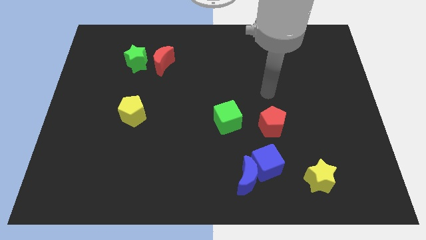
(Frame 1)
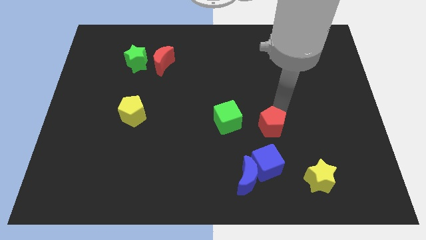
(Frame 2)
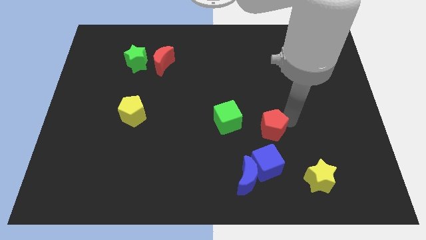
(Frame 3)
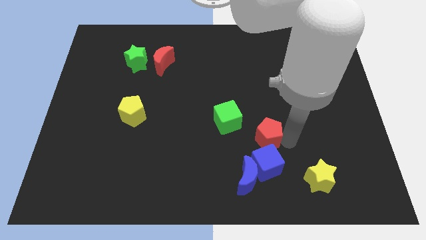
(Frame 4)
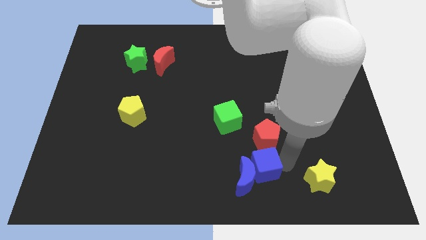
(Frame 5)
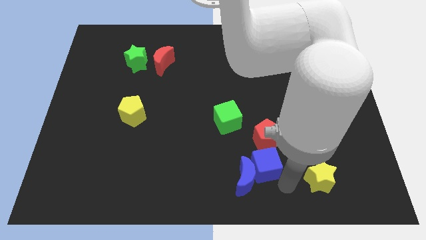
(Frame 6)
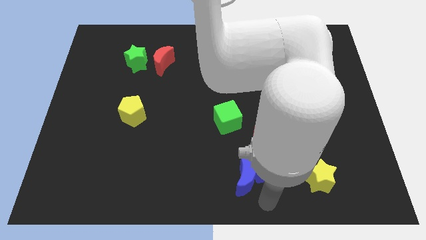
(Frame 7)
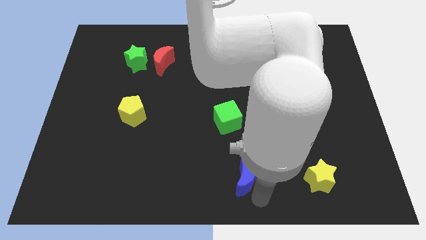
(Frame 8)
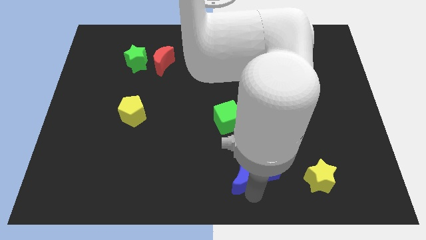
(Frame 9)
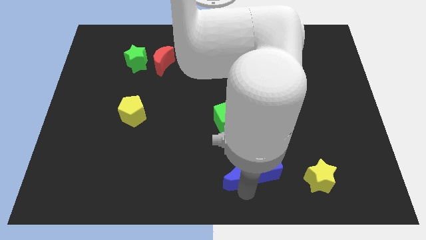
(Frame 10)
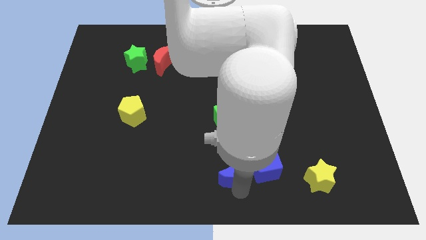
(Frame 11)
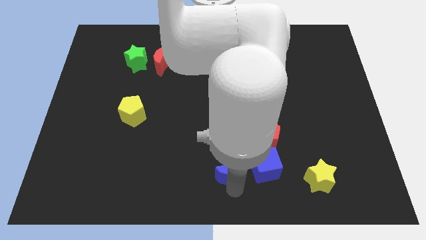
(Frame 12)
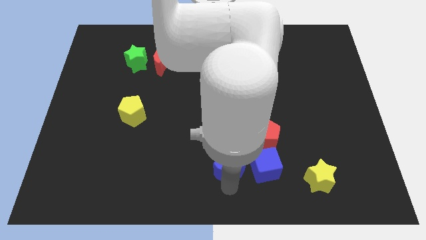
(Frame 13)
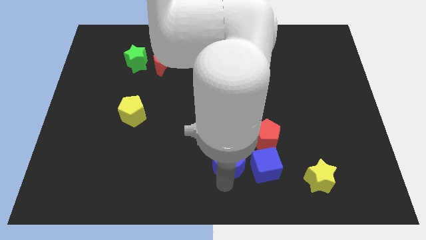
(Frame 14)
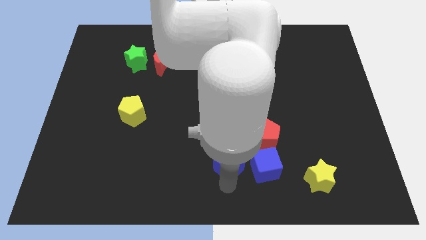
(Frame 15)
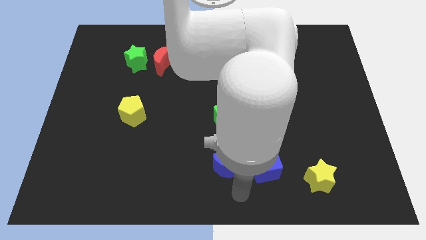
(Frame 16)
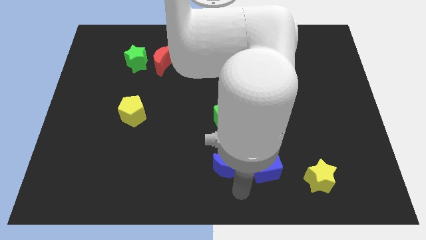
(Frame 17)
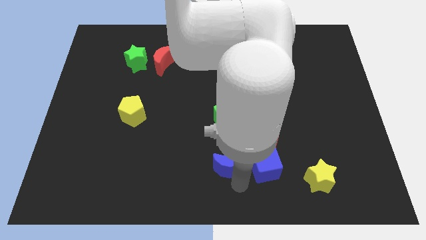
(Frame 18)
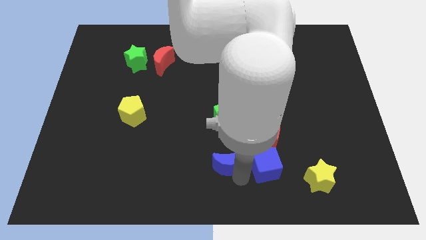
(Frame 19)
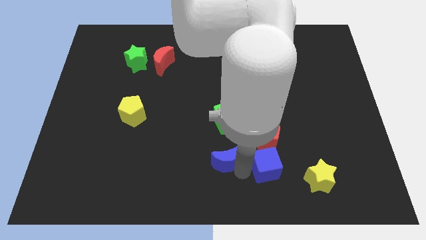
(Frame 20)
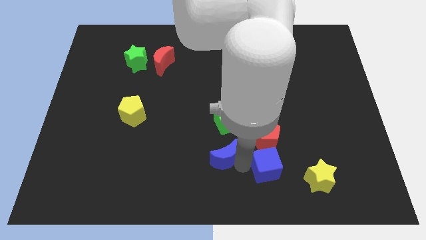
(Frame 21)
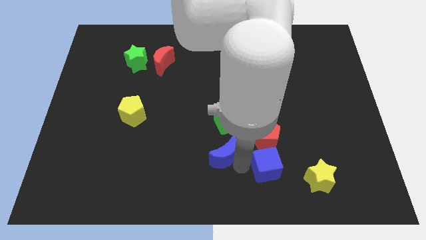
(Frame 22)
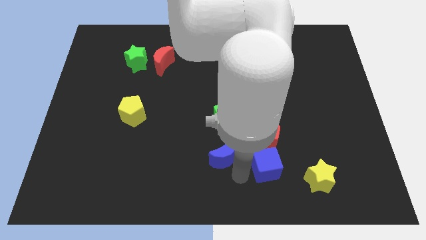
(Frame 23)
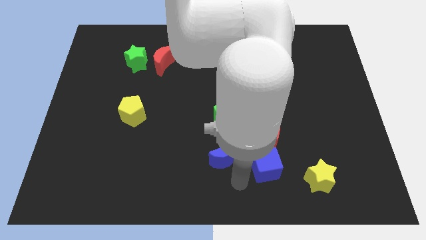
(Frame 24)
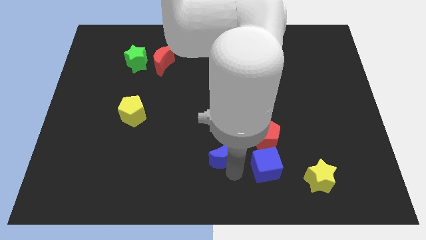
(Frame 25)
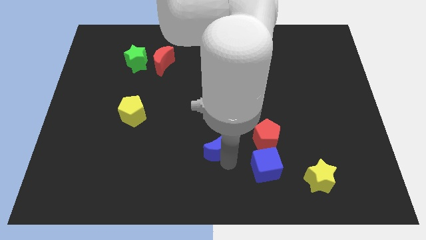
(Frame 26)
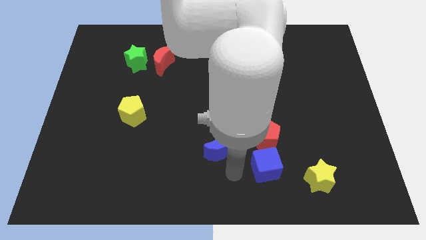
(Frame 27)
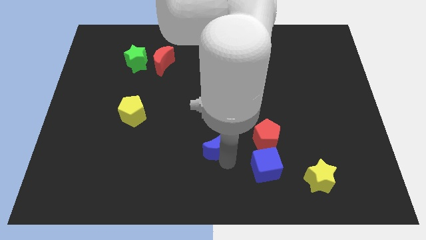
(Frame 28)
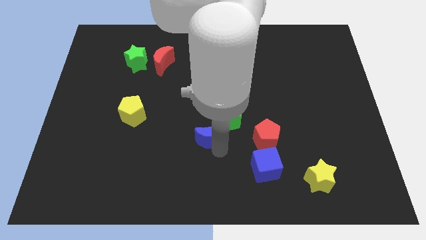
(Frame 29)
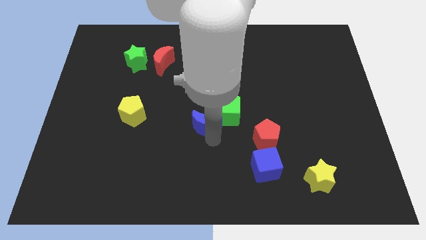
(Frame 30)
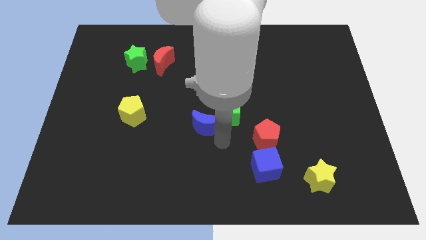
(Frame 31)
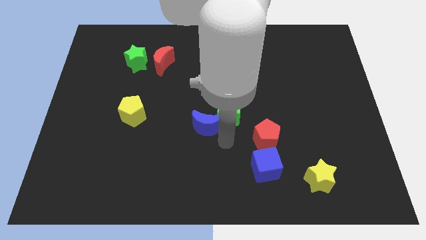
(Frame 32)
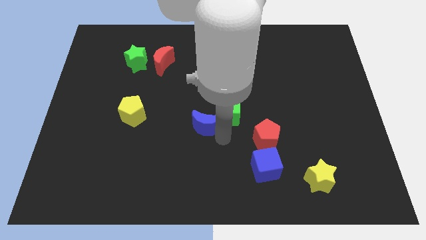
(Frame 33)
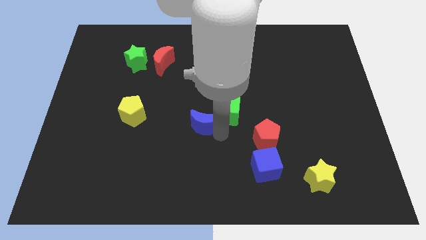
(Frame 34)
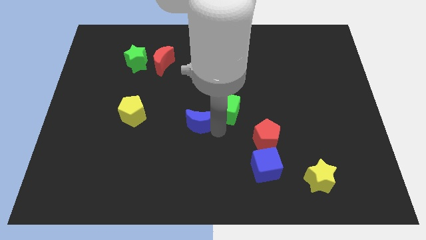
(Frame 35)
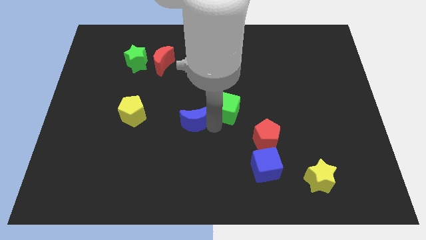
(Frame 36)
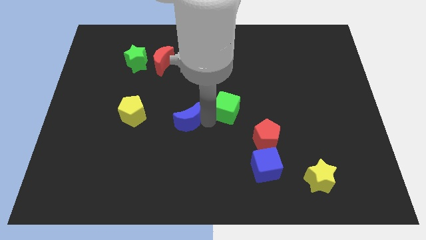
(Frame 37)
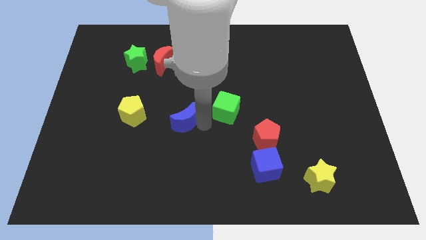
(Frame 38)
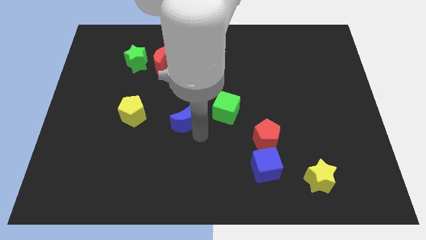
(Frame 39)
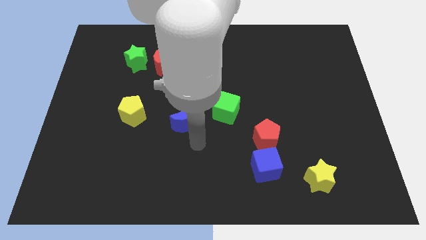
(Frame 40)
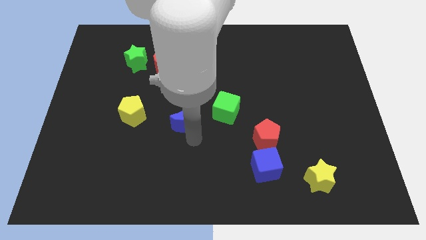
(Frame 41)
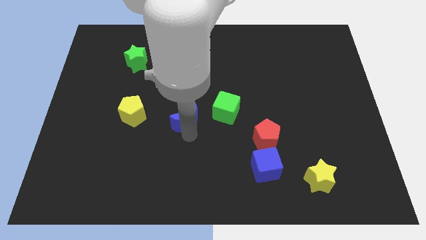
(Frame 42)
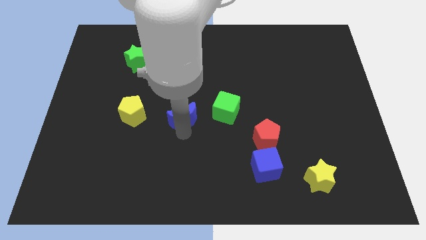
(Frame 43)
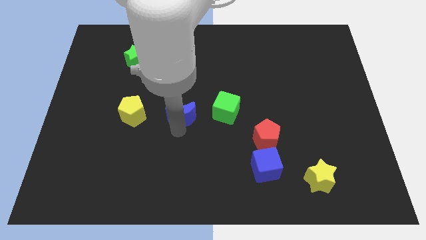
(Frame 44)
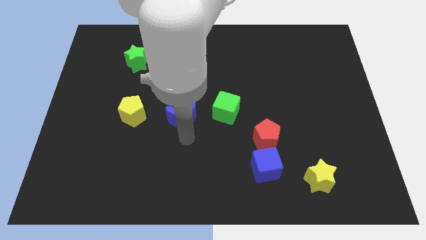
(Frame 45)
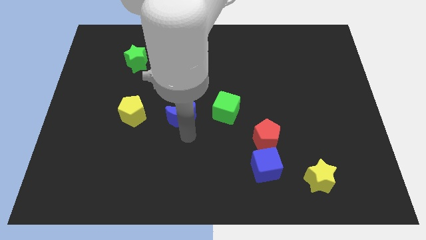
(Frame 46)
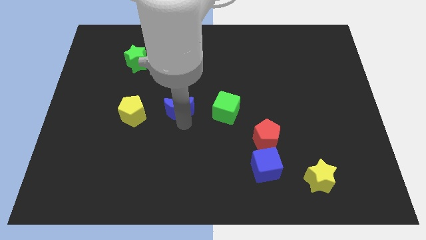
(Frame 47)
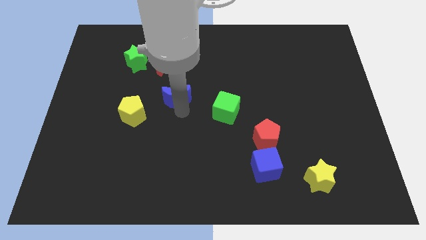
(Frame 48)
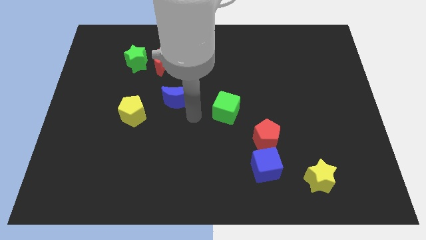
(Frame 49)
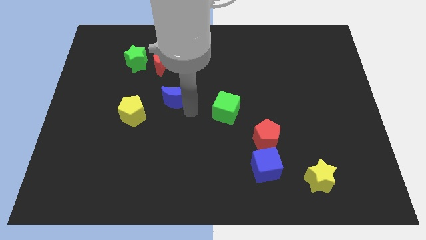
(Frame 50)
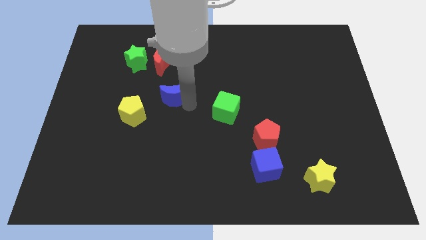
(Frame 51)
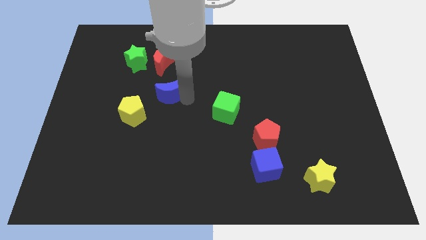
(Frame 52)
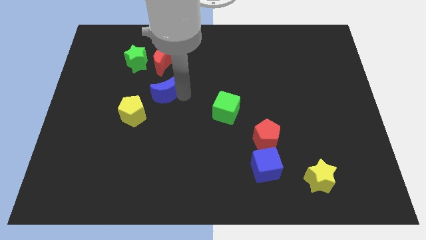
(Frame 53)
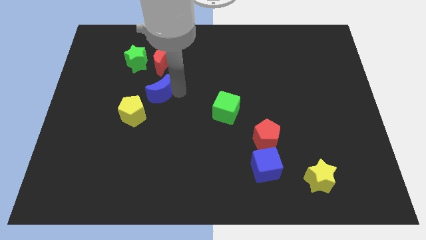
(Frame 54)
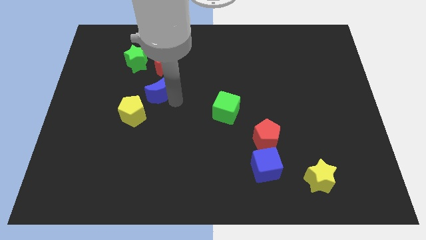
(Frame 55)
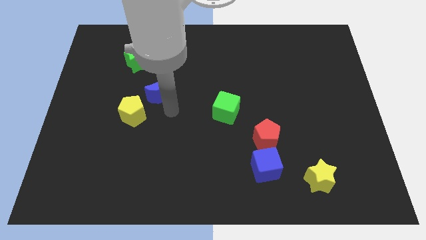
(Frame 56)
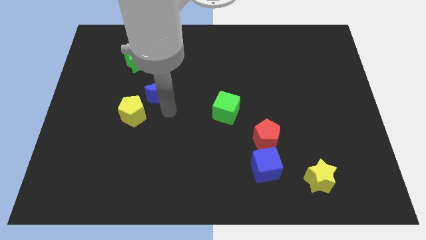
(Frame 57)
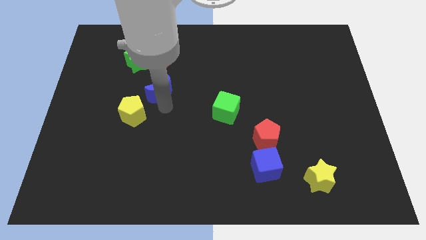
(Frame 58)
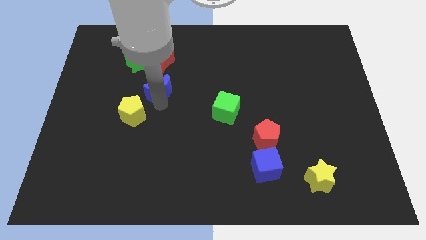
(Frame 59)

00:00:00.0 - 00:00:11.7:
slide the blue moon to the bottom right of the green star

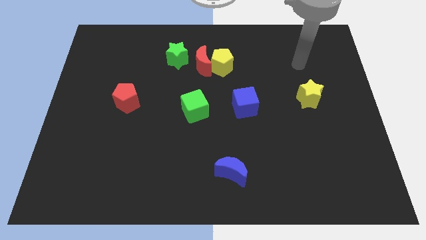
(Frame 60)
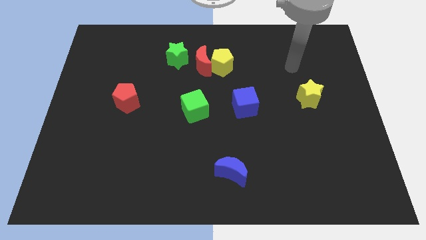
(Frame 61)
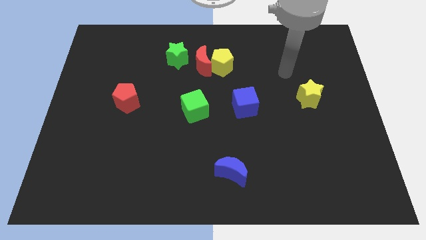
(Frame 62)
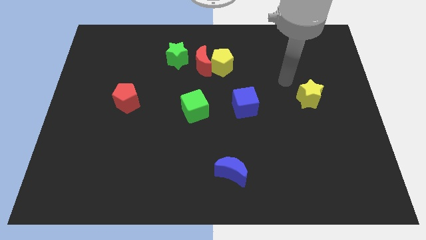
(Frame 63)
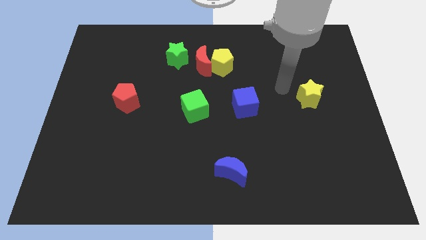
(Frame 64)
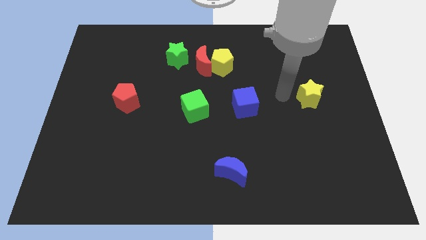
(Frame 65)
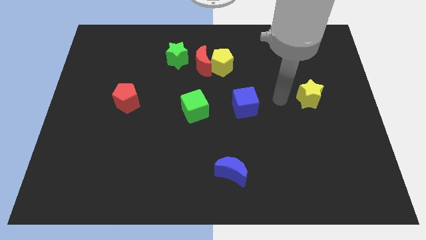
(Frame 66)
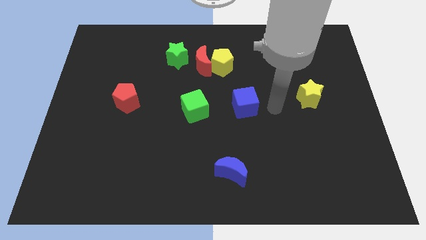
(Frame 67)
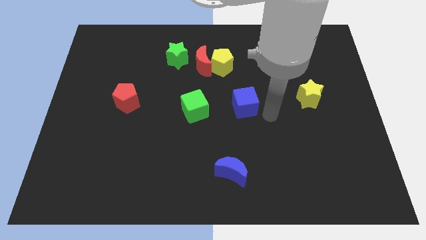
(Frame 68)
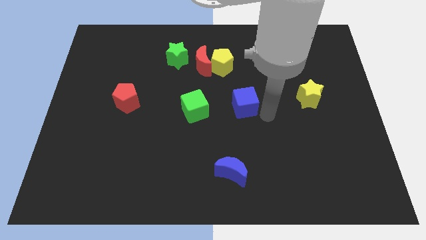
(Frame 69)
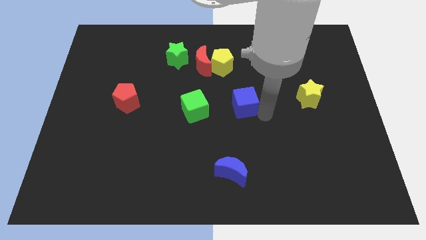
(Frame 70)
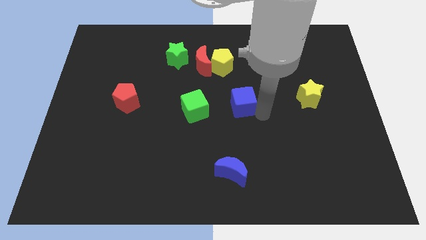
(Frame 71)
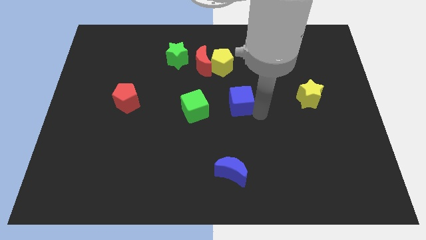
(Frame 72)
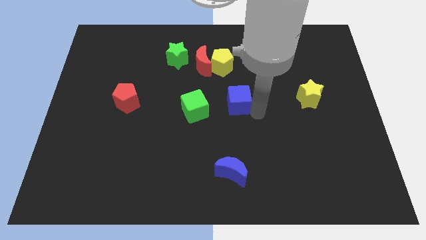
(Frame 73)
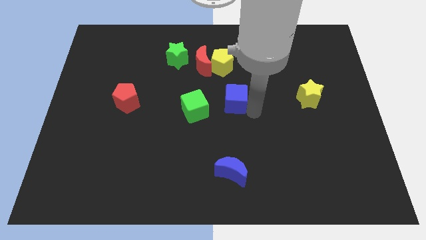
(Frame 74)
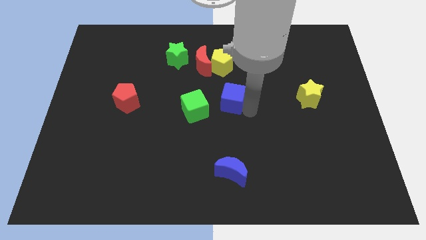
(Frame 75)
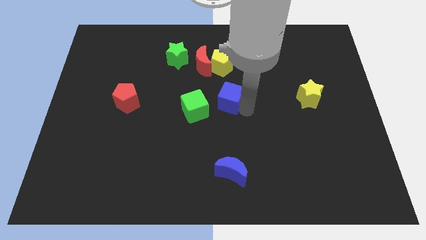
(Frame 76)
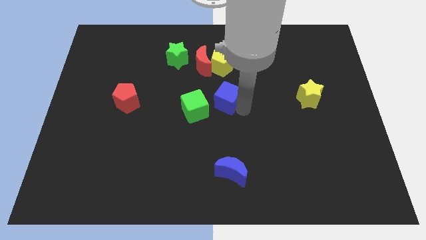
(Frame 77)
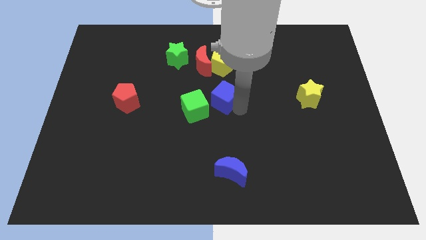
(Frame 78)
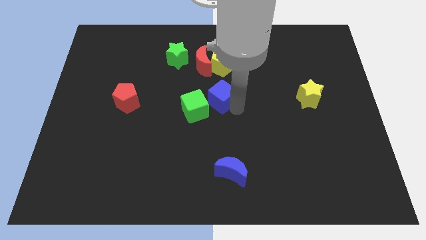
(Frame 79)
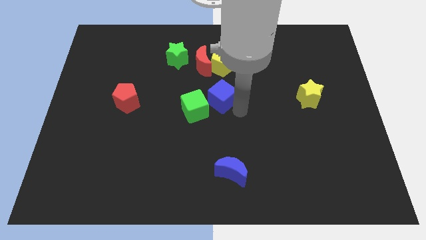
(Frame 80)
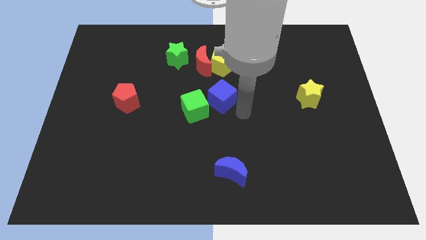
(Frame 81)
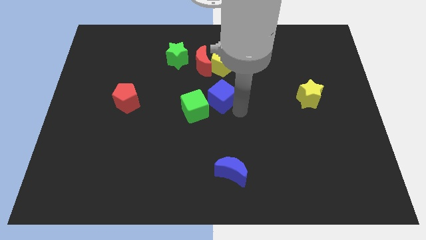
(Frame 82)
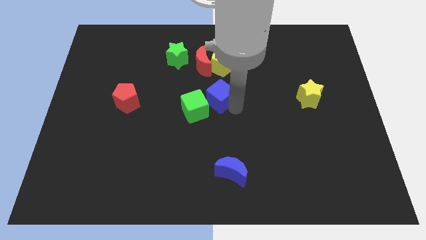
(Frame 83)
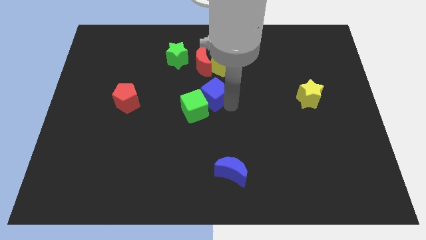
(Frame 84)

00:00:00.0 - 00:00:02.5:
put the blue cube to the top of the green cube
